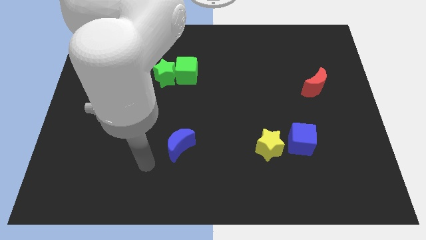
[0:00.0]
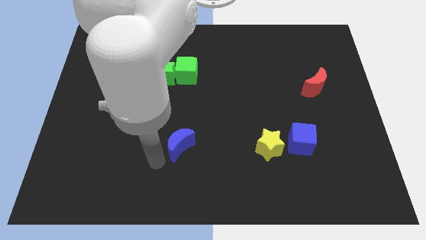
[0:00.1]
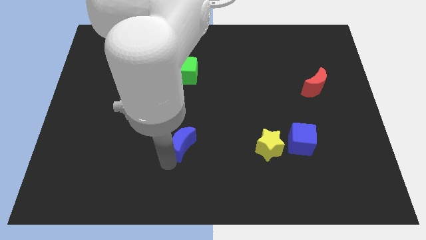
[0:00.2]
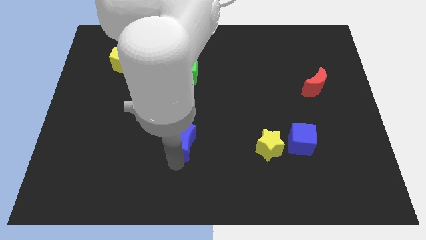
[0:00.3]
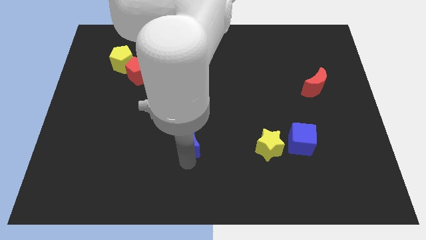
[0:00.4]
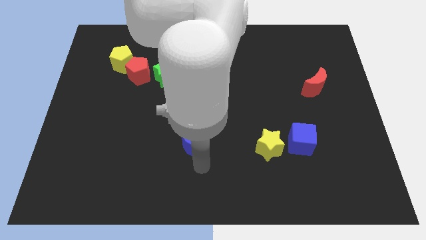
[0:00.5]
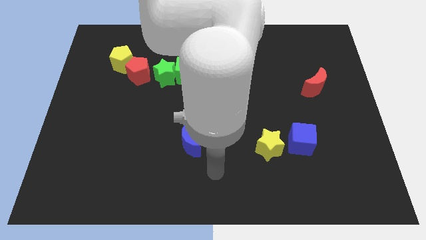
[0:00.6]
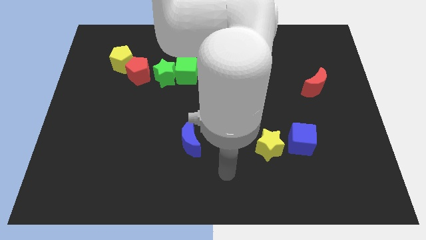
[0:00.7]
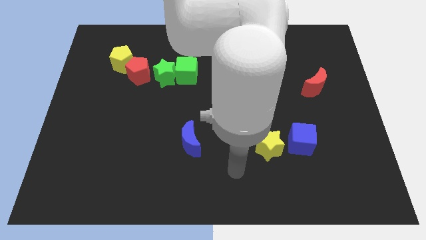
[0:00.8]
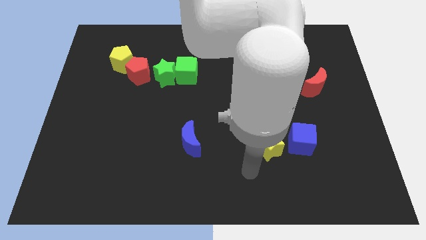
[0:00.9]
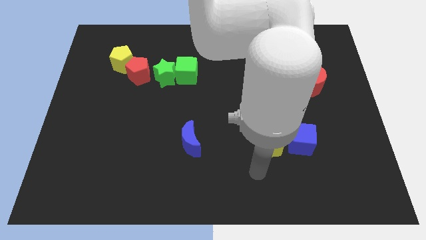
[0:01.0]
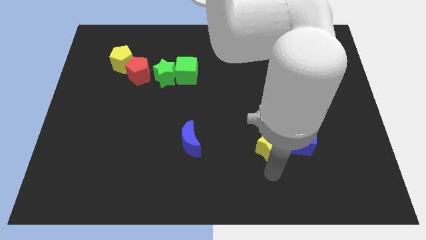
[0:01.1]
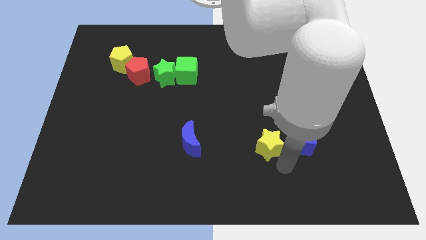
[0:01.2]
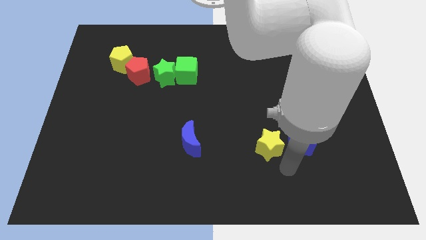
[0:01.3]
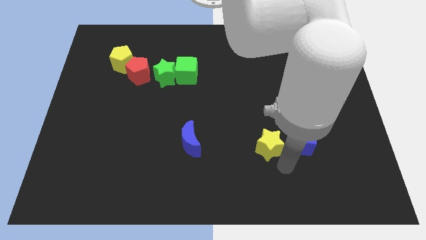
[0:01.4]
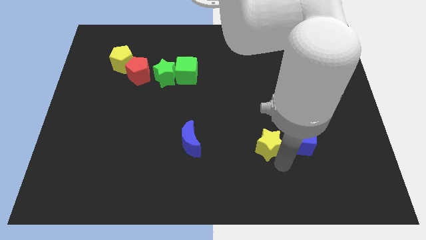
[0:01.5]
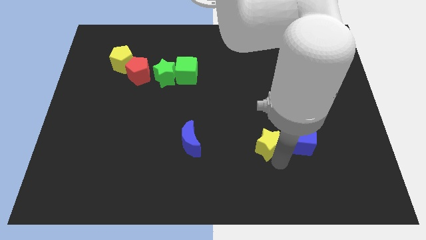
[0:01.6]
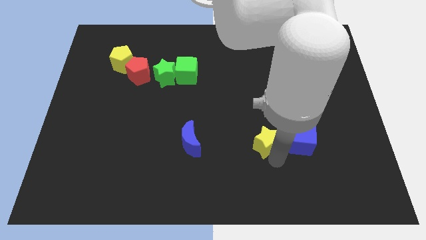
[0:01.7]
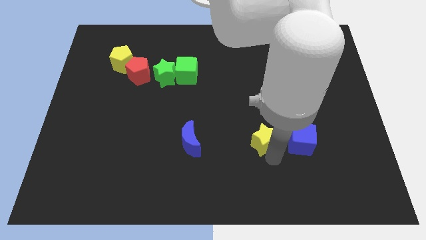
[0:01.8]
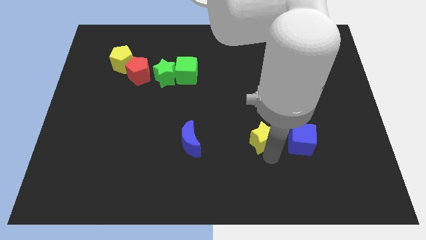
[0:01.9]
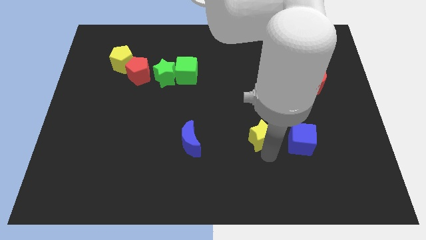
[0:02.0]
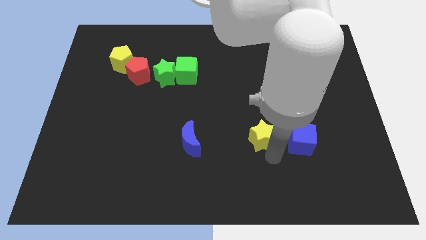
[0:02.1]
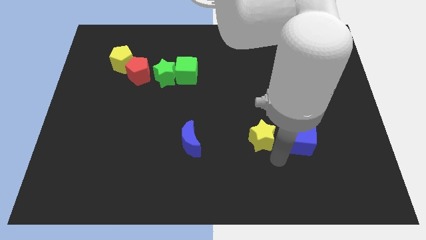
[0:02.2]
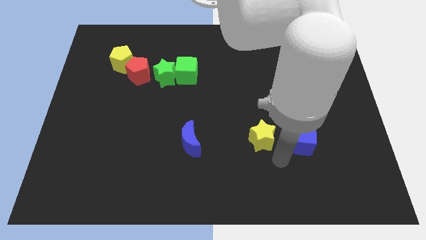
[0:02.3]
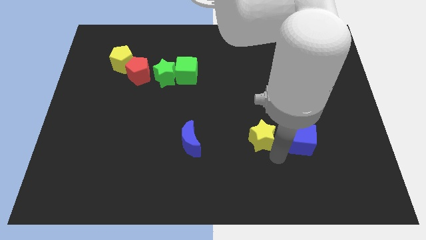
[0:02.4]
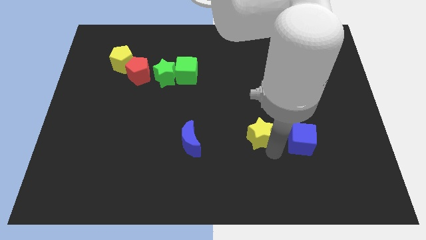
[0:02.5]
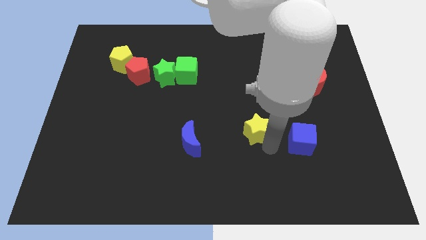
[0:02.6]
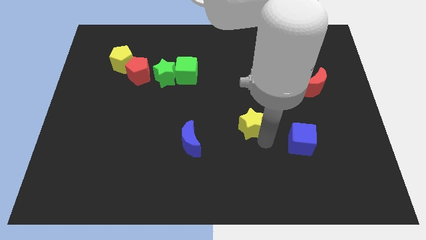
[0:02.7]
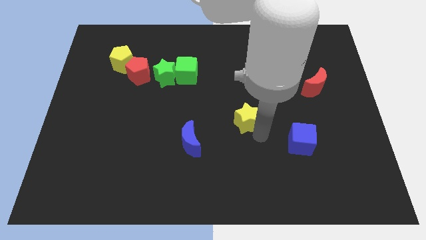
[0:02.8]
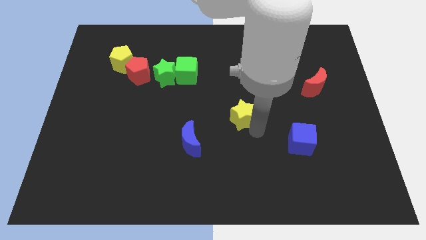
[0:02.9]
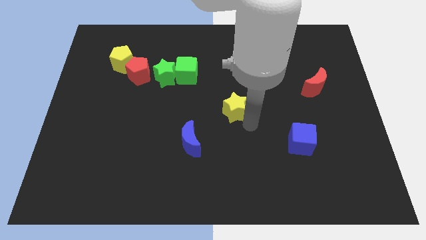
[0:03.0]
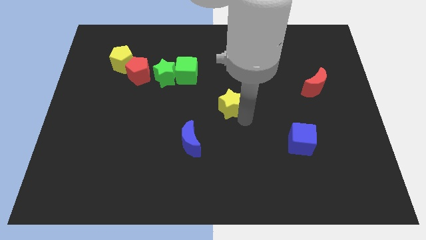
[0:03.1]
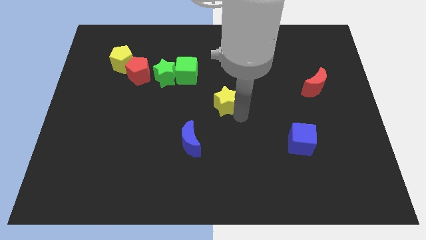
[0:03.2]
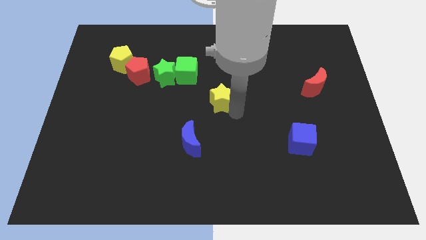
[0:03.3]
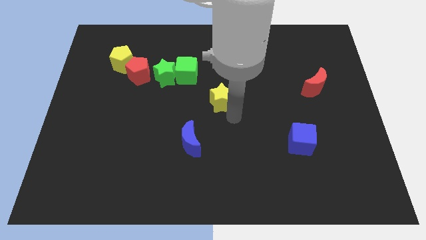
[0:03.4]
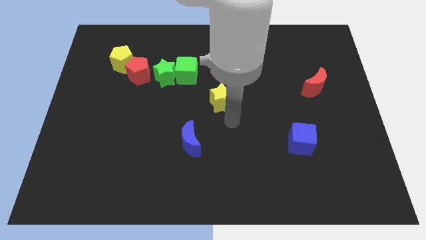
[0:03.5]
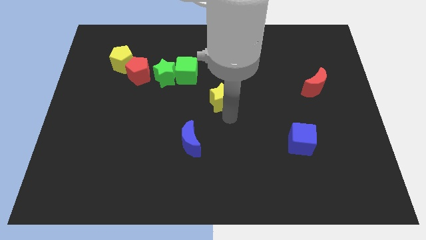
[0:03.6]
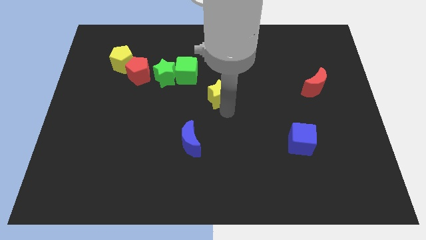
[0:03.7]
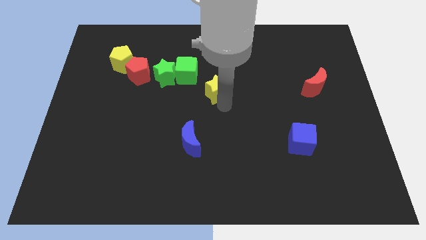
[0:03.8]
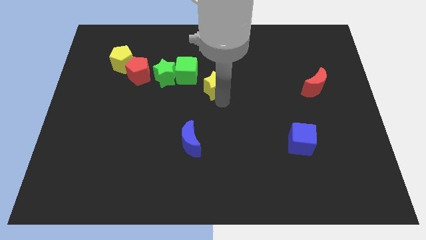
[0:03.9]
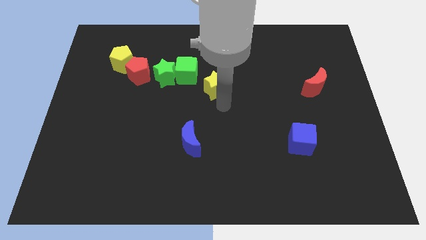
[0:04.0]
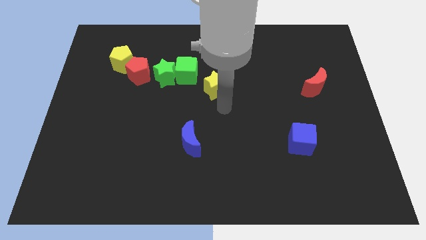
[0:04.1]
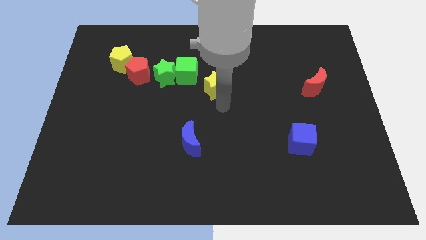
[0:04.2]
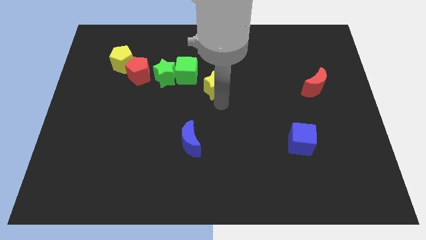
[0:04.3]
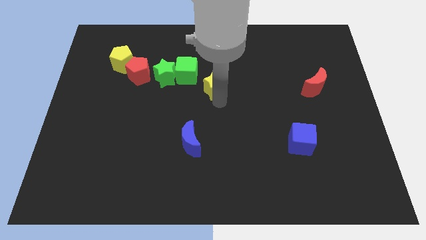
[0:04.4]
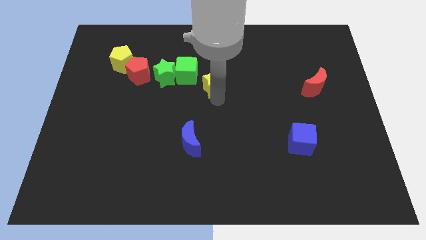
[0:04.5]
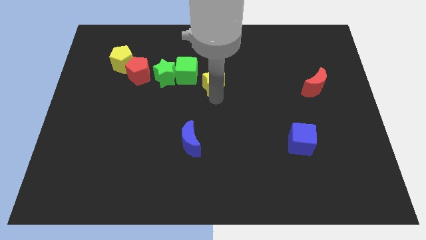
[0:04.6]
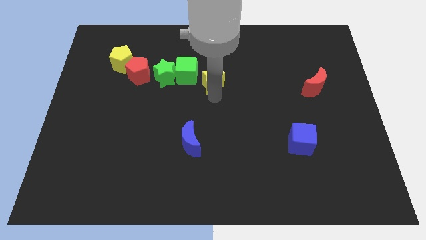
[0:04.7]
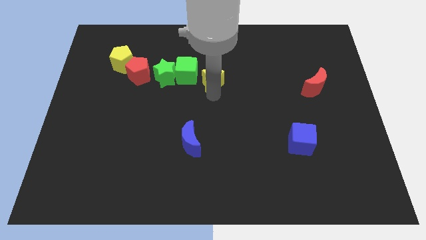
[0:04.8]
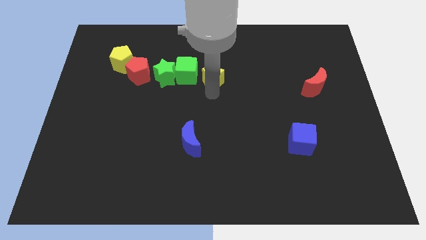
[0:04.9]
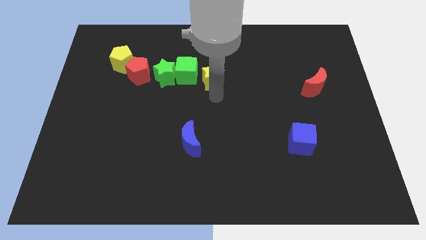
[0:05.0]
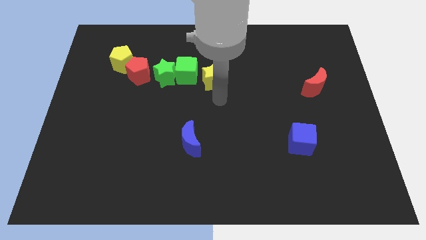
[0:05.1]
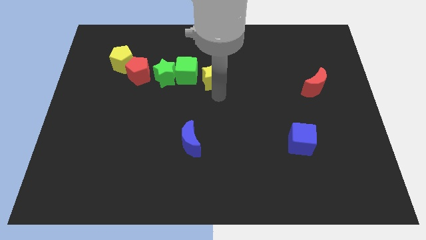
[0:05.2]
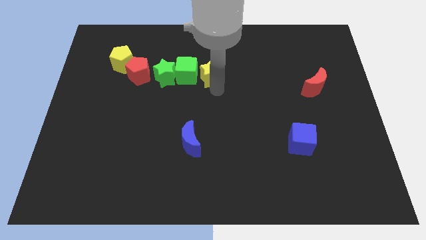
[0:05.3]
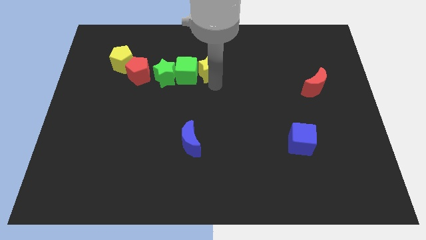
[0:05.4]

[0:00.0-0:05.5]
move the yellow star diagonally up and to the right of the green cube

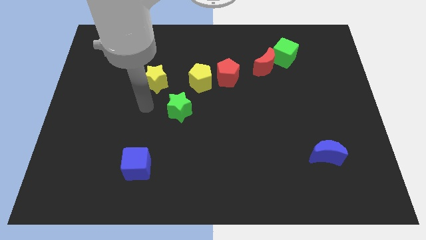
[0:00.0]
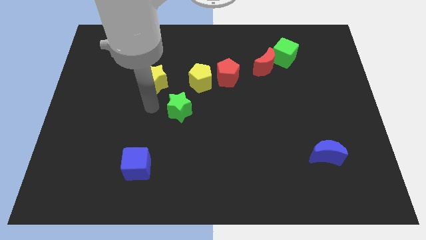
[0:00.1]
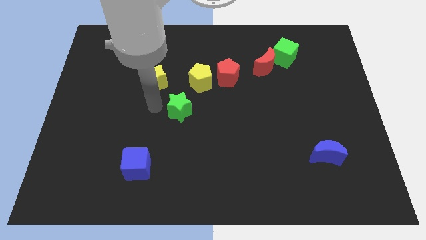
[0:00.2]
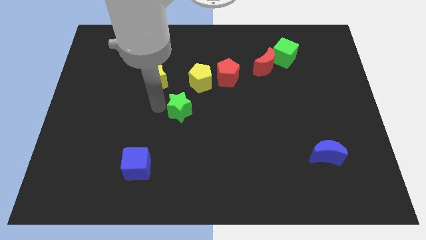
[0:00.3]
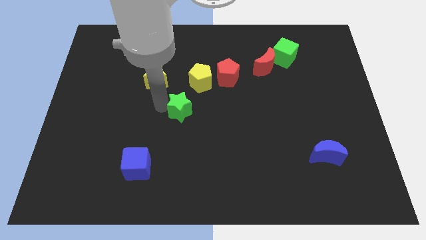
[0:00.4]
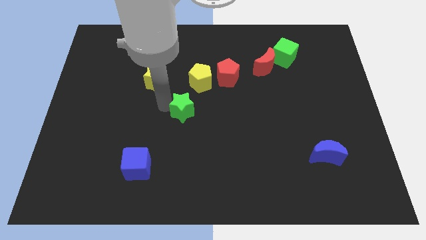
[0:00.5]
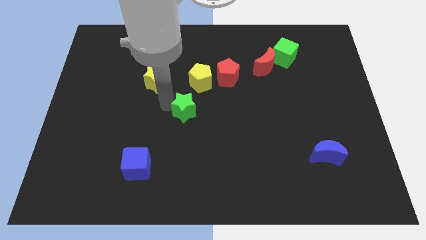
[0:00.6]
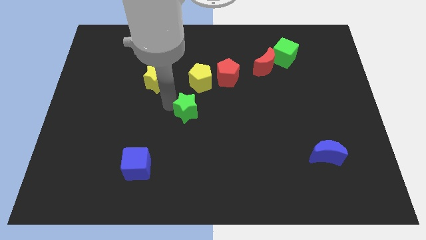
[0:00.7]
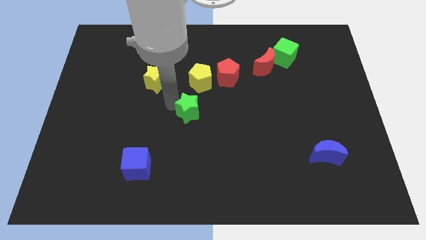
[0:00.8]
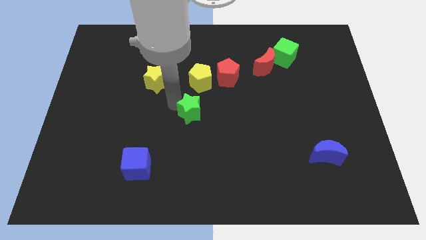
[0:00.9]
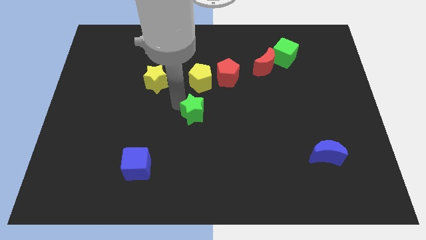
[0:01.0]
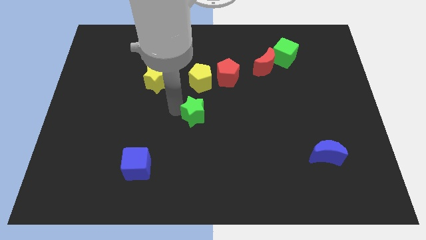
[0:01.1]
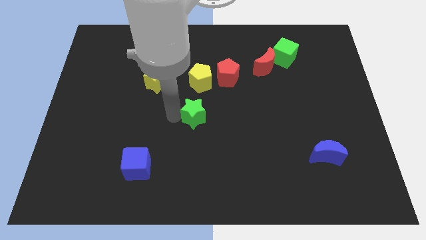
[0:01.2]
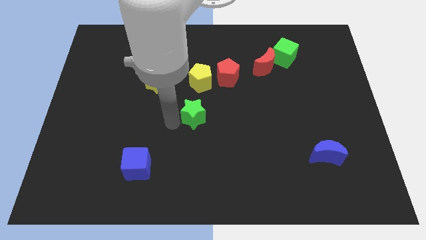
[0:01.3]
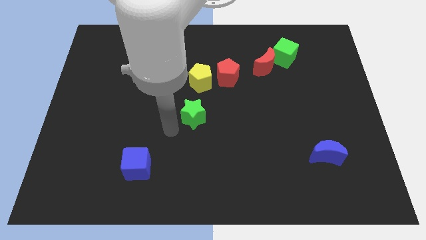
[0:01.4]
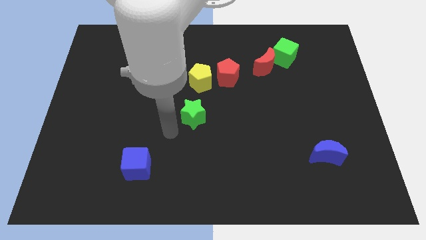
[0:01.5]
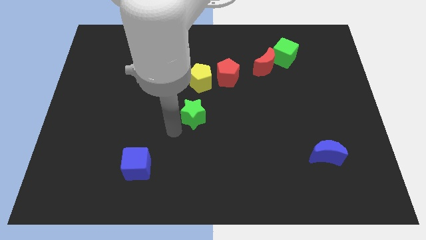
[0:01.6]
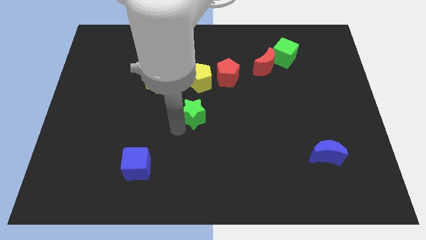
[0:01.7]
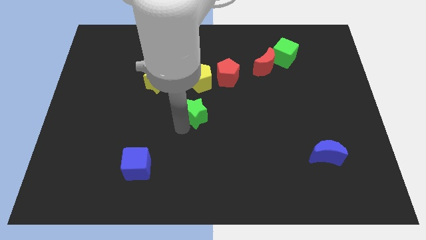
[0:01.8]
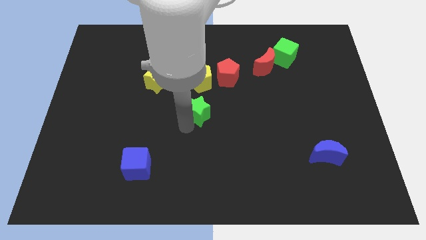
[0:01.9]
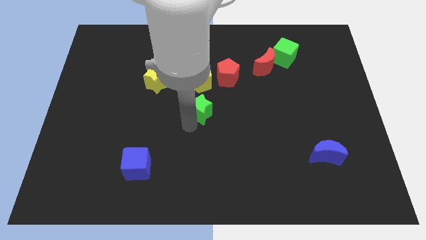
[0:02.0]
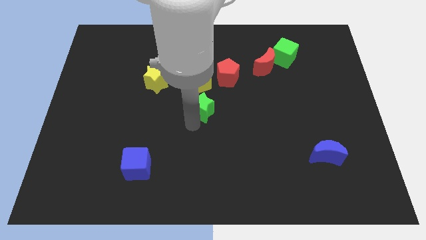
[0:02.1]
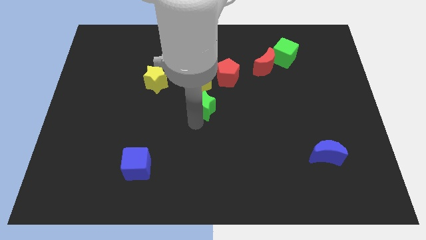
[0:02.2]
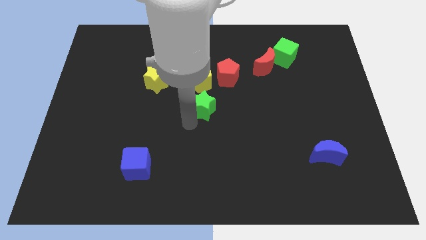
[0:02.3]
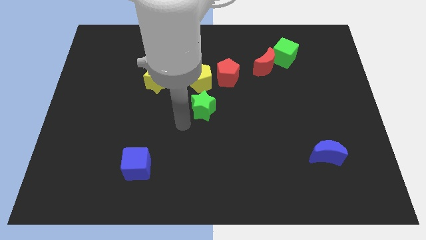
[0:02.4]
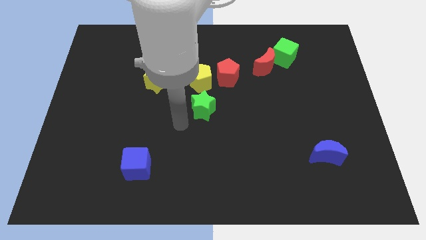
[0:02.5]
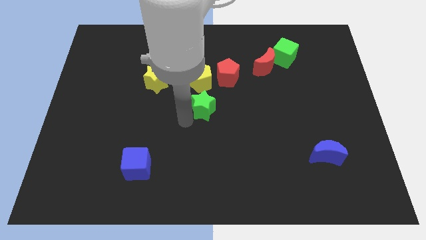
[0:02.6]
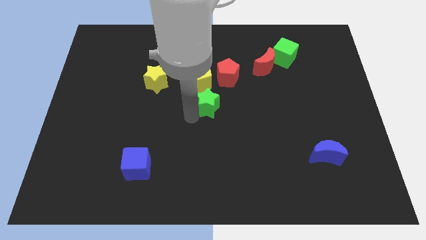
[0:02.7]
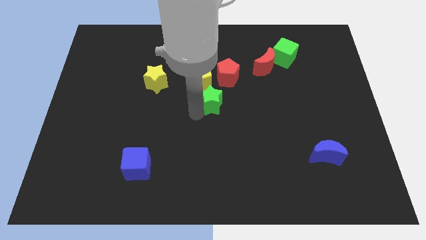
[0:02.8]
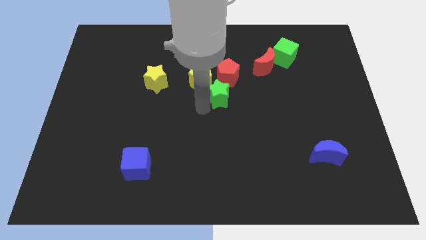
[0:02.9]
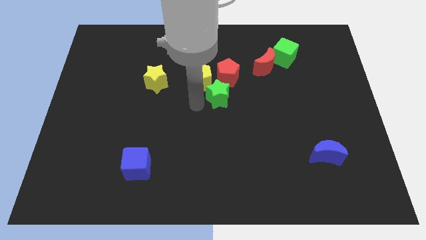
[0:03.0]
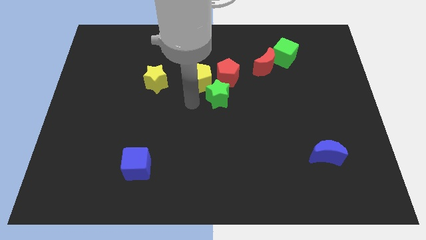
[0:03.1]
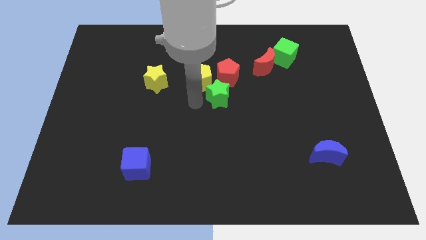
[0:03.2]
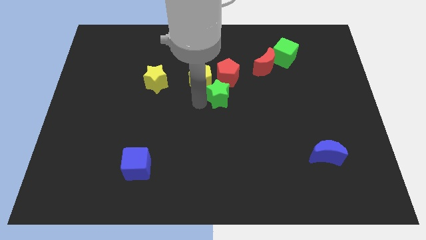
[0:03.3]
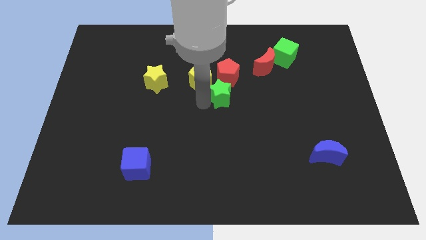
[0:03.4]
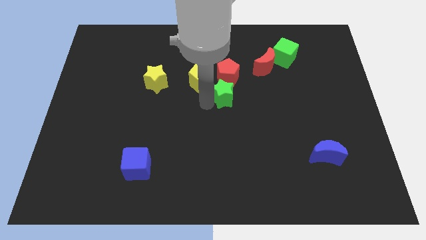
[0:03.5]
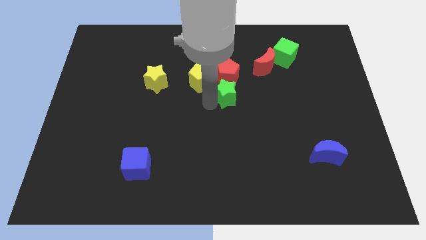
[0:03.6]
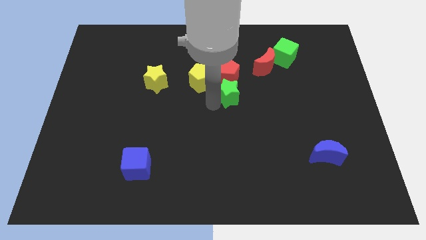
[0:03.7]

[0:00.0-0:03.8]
move the green star to the bottom right side of the red pentagon
